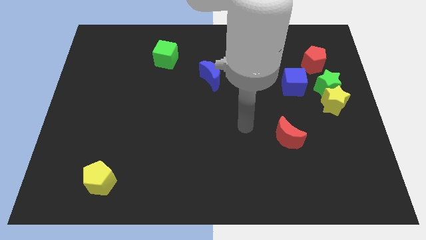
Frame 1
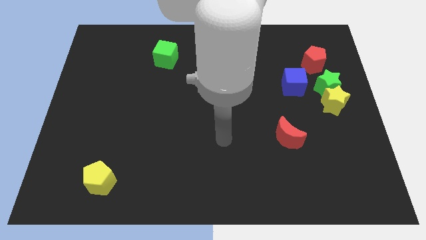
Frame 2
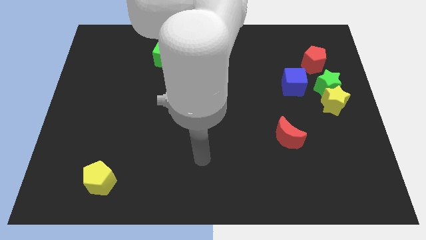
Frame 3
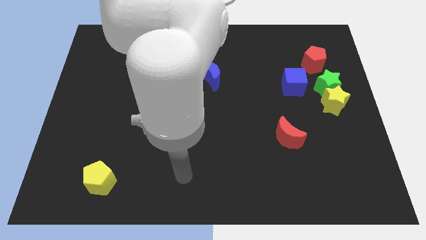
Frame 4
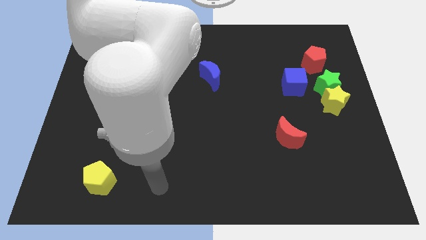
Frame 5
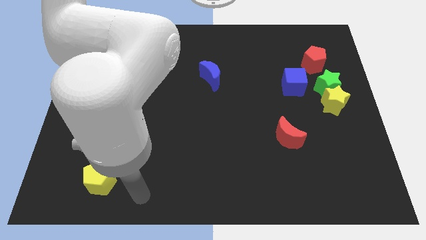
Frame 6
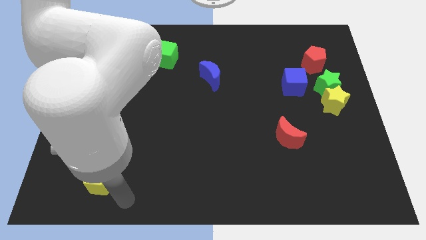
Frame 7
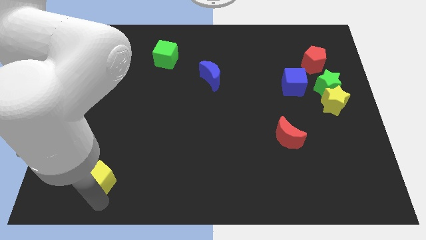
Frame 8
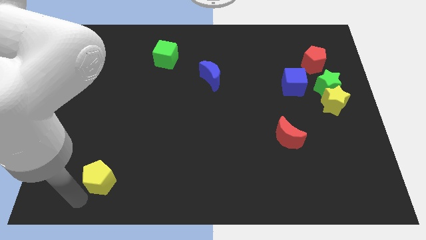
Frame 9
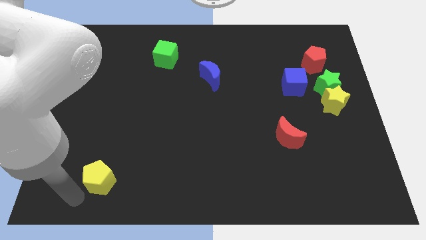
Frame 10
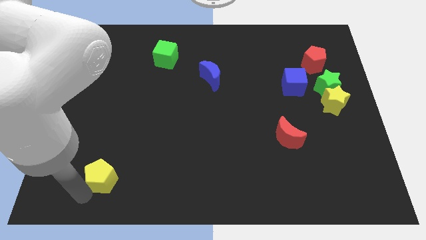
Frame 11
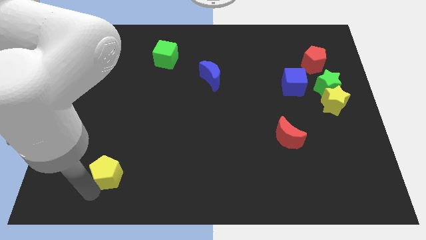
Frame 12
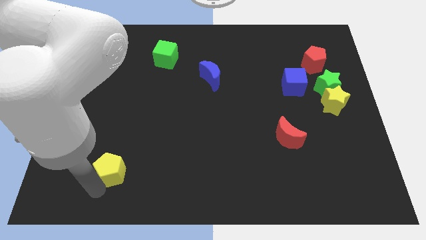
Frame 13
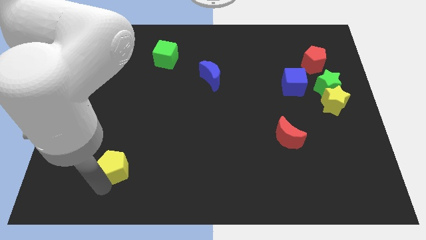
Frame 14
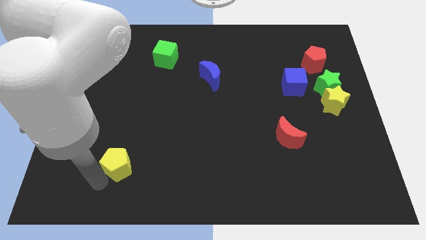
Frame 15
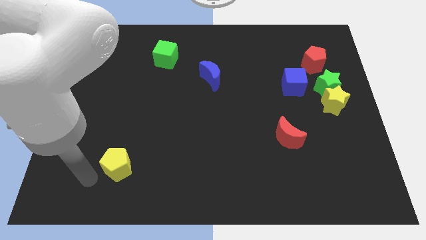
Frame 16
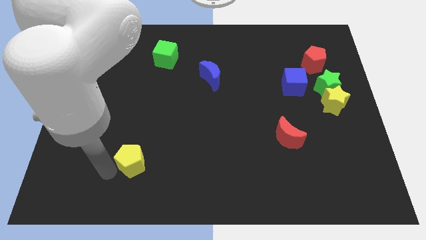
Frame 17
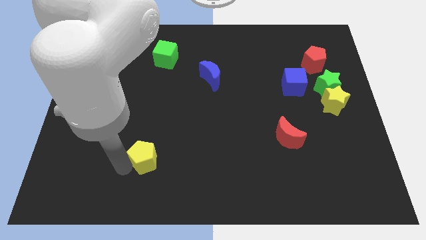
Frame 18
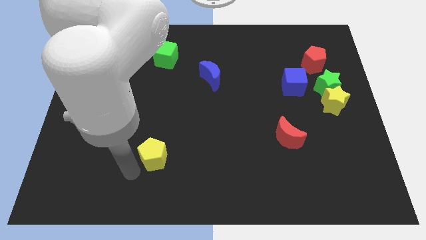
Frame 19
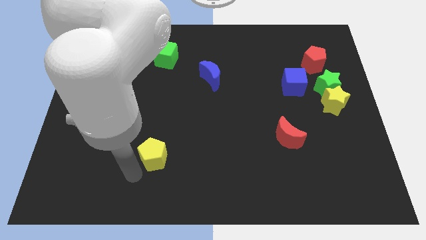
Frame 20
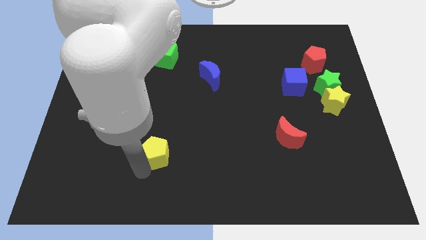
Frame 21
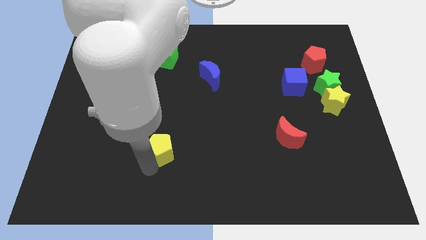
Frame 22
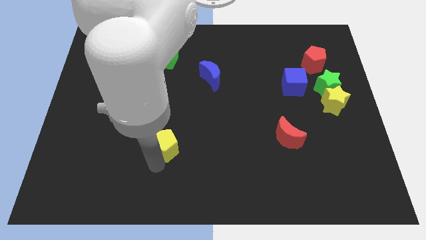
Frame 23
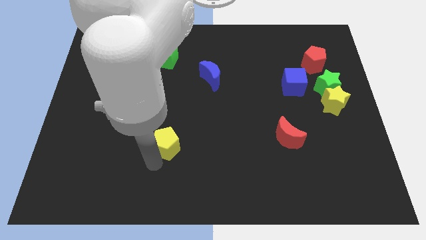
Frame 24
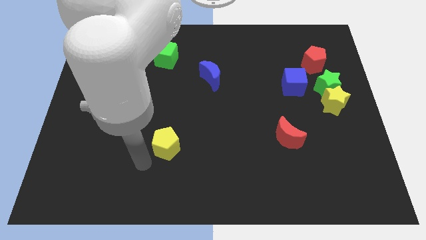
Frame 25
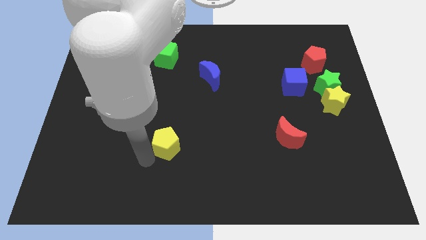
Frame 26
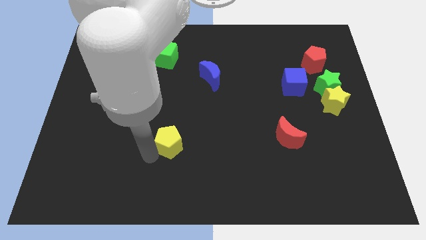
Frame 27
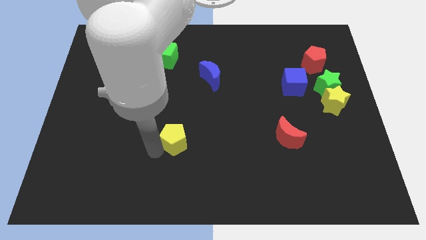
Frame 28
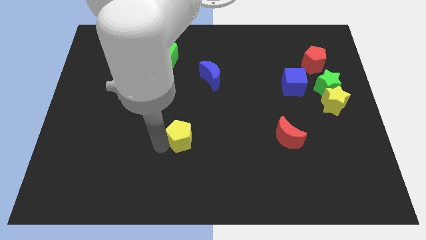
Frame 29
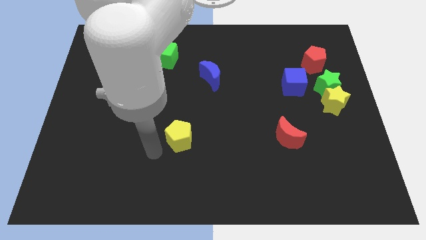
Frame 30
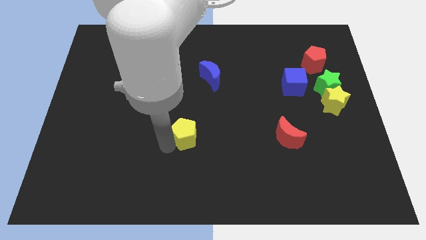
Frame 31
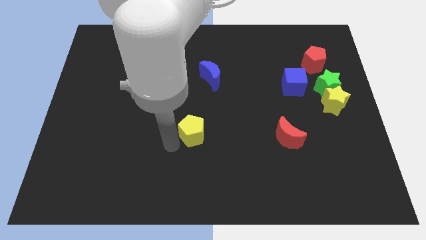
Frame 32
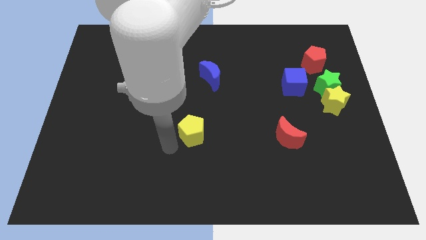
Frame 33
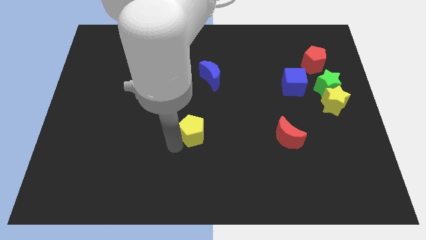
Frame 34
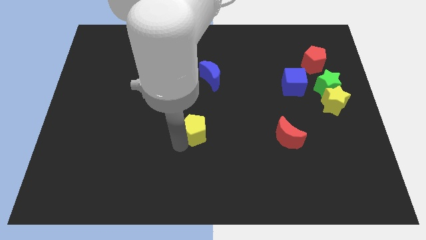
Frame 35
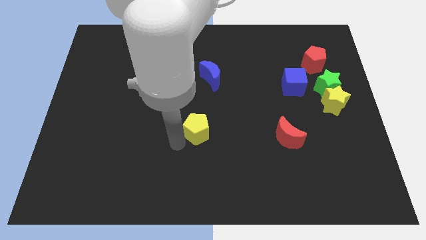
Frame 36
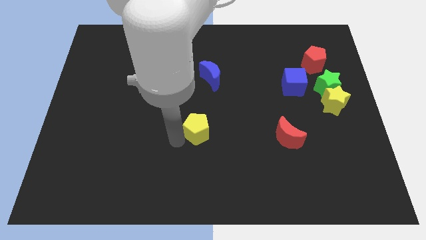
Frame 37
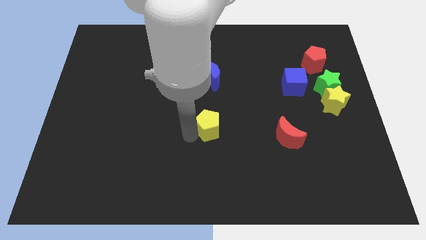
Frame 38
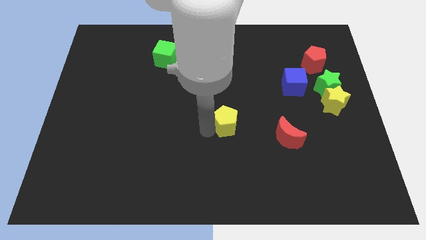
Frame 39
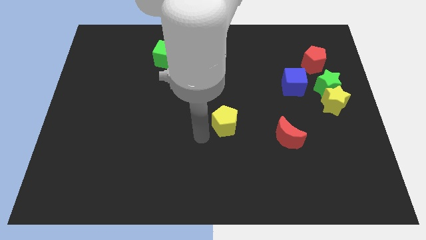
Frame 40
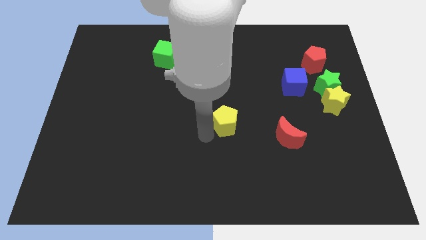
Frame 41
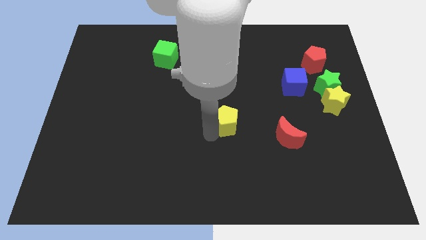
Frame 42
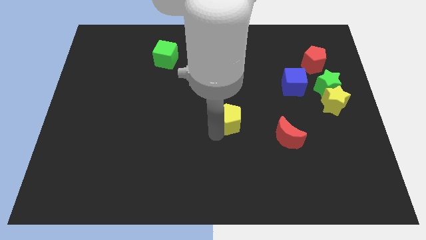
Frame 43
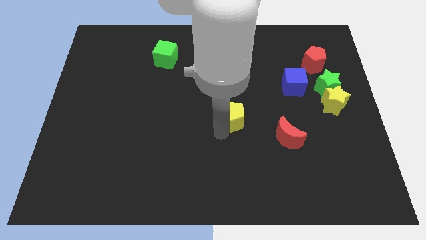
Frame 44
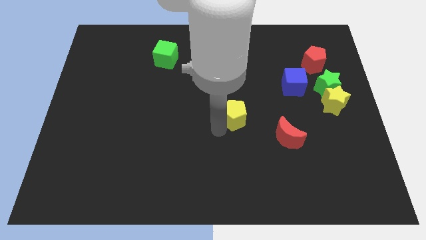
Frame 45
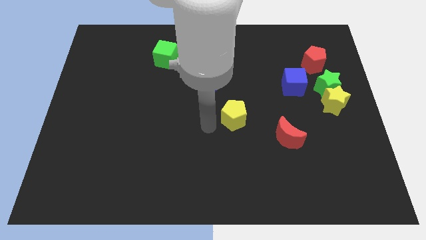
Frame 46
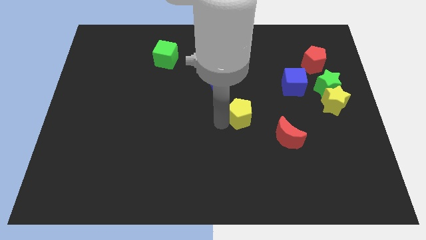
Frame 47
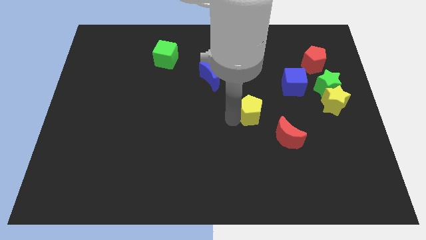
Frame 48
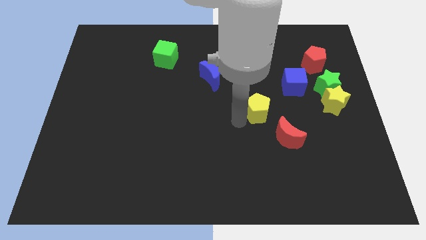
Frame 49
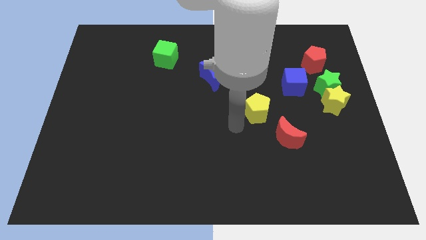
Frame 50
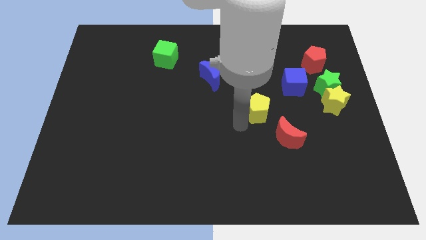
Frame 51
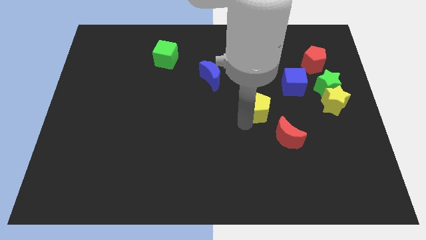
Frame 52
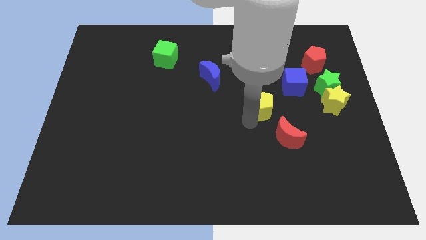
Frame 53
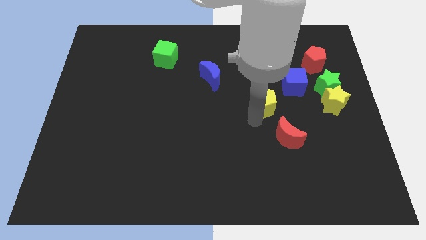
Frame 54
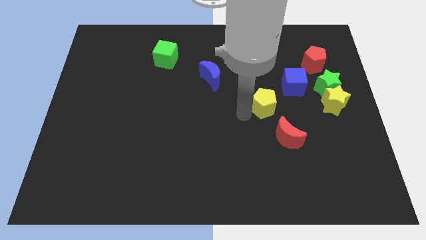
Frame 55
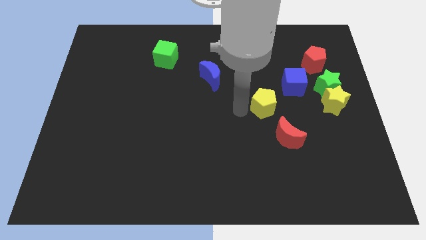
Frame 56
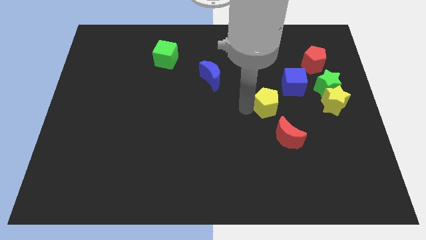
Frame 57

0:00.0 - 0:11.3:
slide the yellow pentagon to the left side of the yellow star

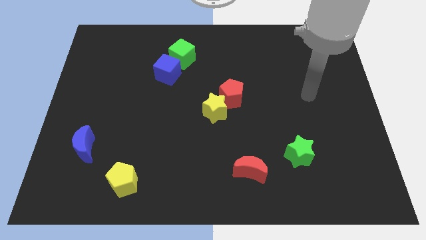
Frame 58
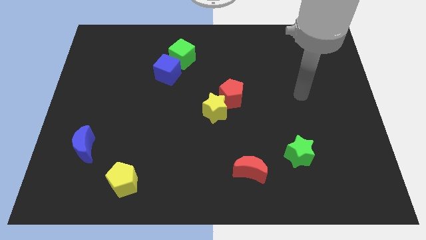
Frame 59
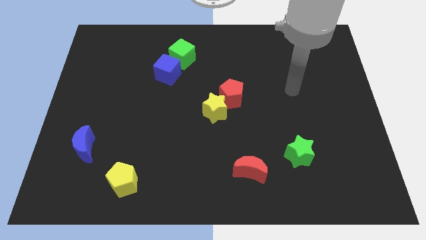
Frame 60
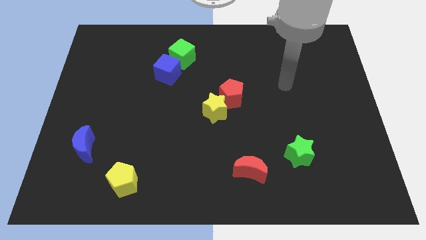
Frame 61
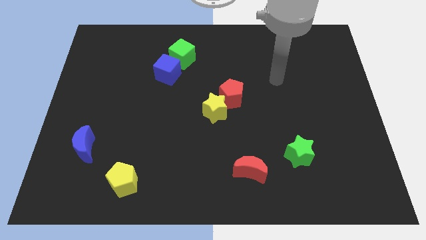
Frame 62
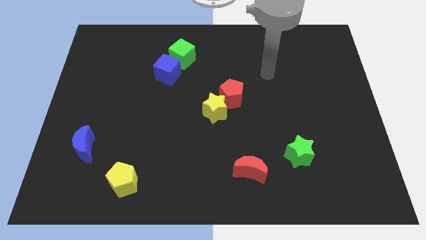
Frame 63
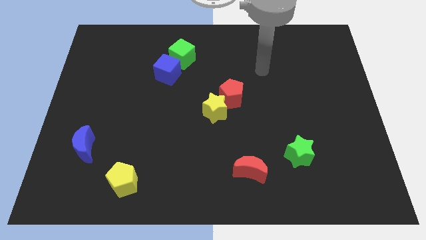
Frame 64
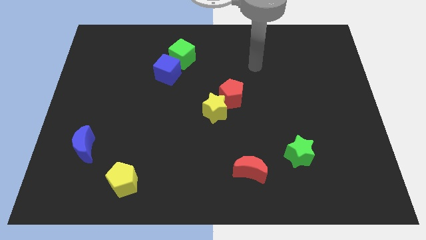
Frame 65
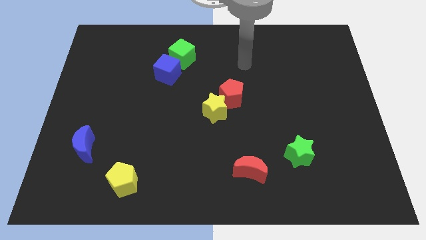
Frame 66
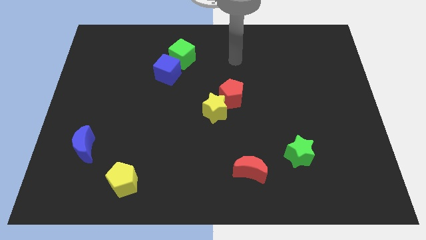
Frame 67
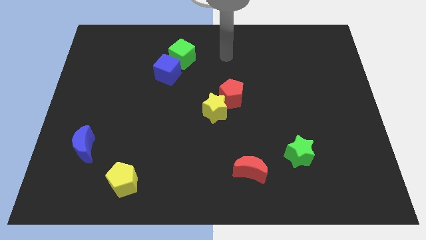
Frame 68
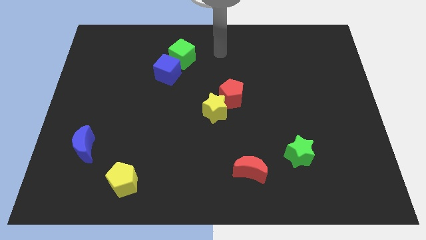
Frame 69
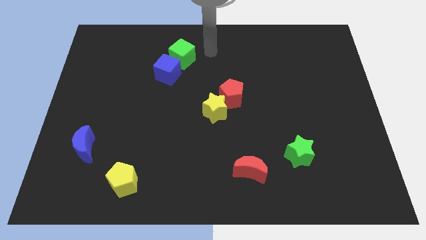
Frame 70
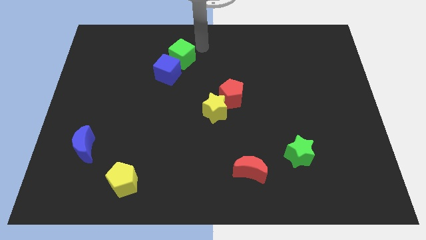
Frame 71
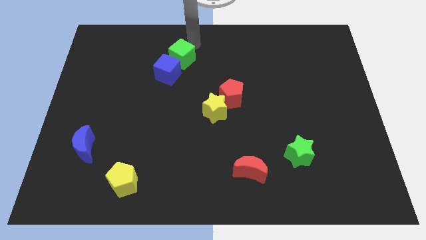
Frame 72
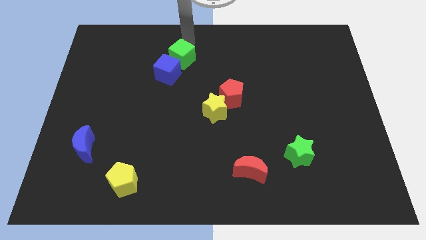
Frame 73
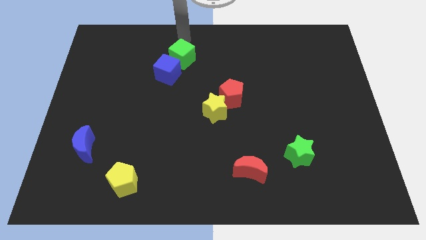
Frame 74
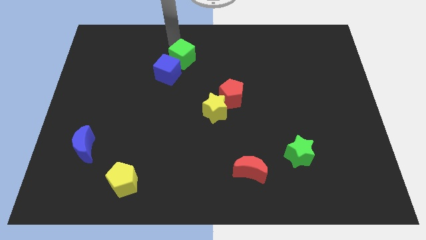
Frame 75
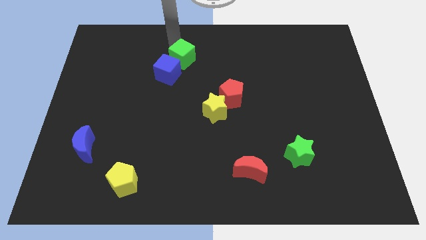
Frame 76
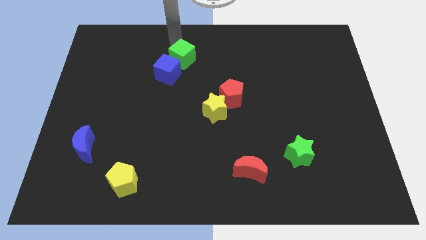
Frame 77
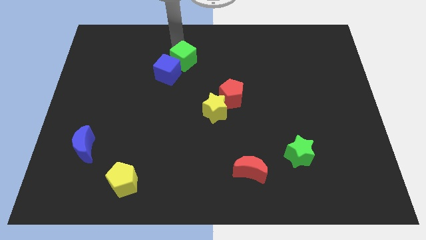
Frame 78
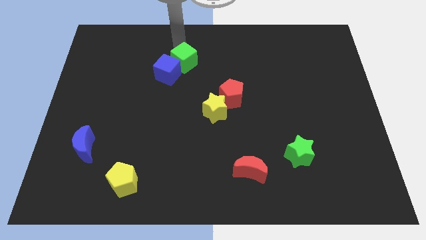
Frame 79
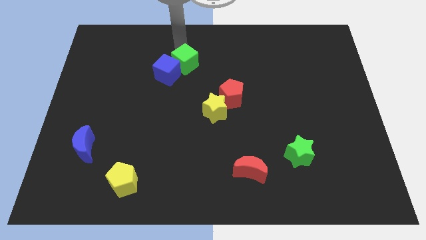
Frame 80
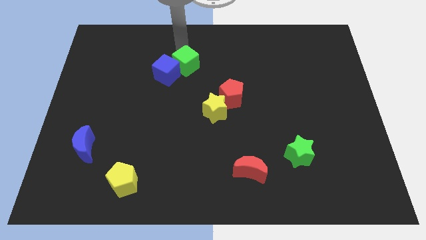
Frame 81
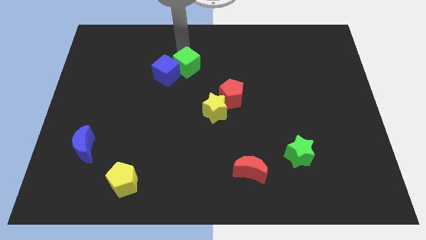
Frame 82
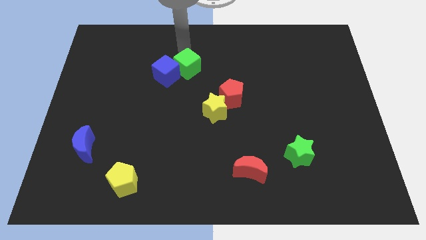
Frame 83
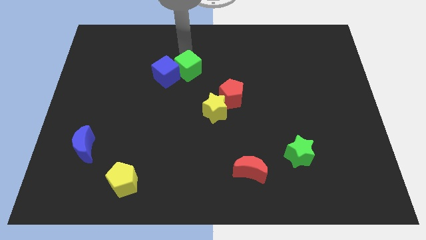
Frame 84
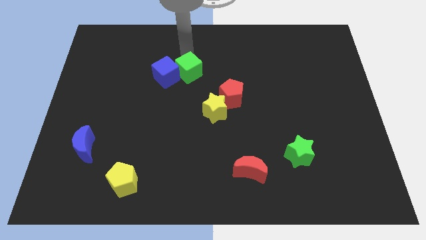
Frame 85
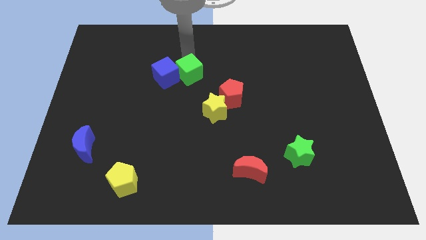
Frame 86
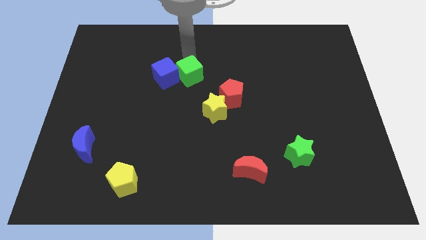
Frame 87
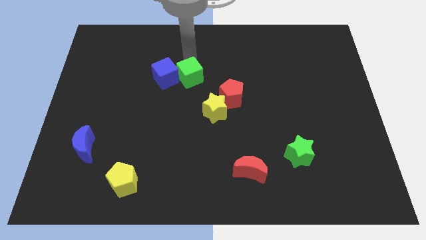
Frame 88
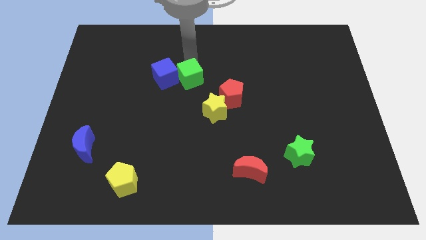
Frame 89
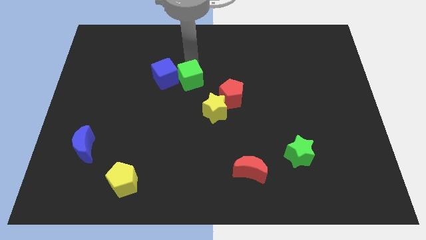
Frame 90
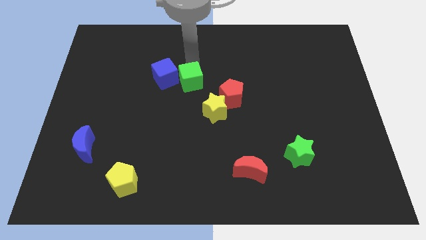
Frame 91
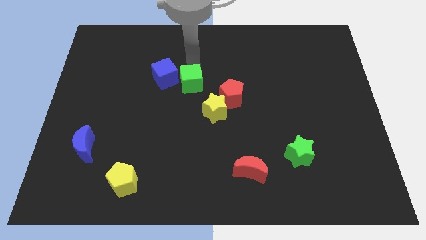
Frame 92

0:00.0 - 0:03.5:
put the green cube left of the red pentagon
